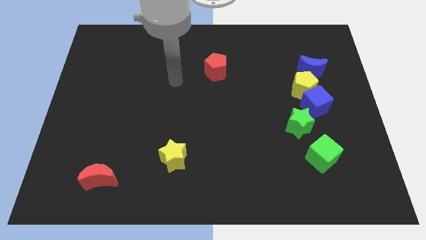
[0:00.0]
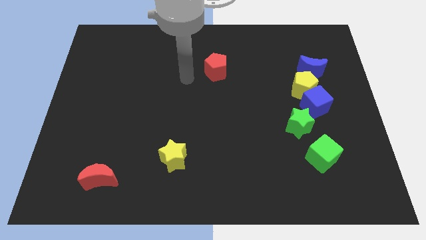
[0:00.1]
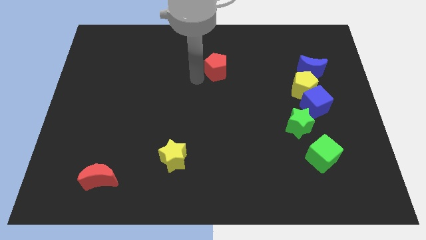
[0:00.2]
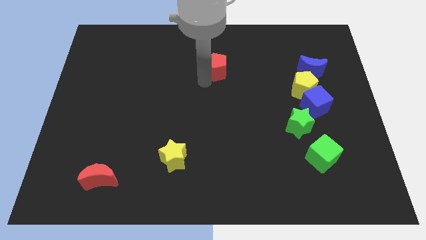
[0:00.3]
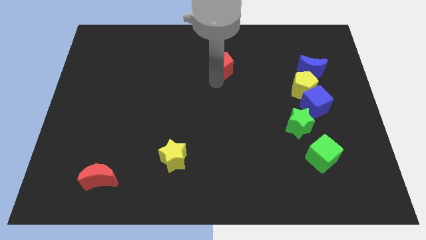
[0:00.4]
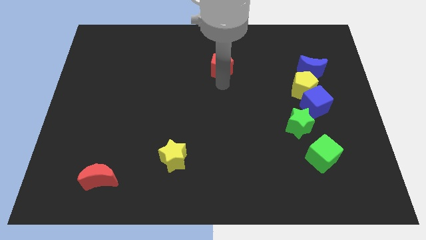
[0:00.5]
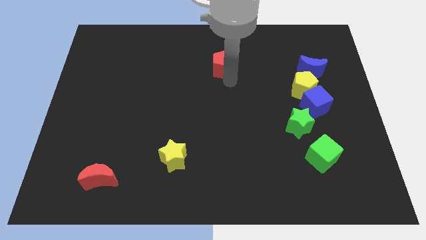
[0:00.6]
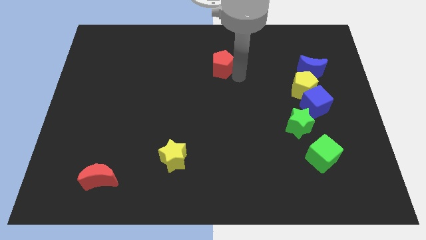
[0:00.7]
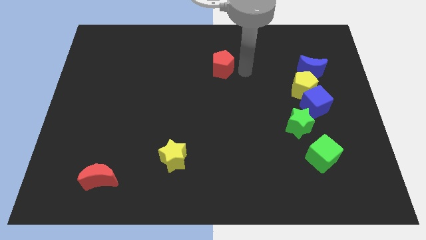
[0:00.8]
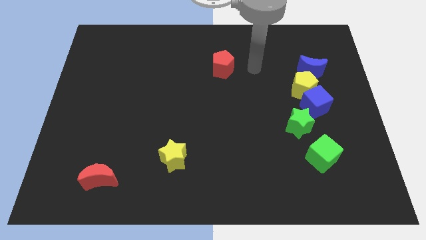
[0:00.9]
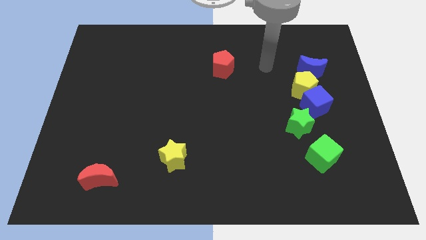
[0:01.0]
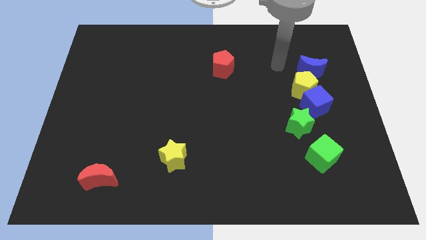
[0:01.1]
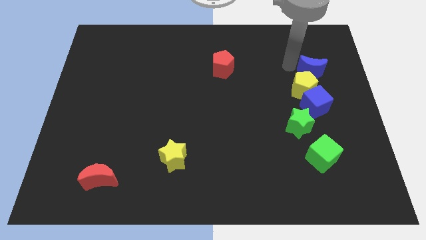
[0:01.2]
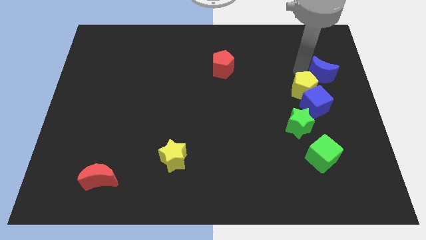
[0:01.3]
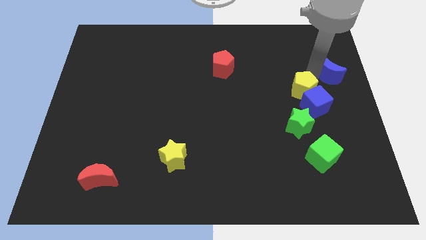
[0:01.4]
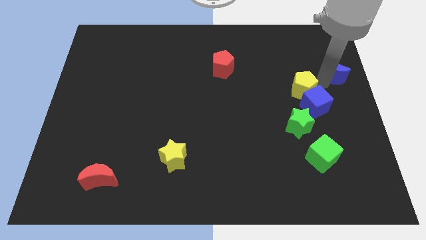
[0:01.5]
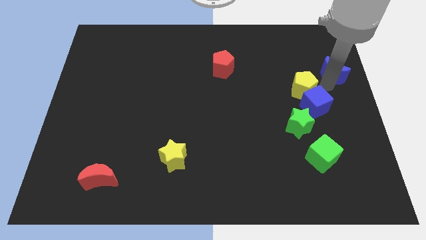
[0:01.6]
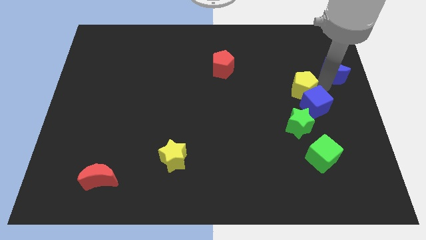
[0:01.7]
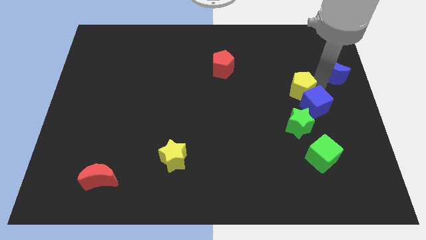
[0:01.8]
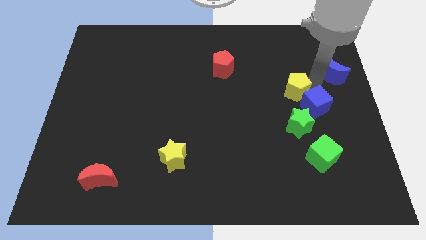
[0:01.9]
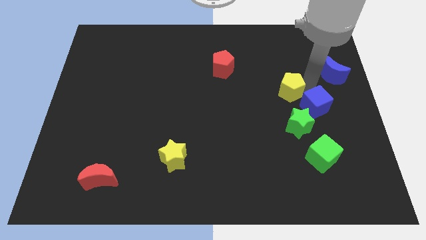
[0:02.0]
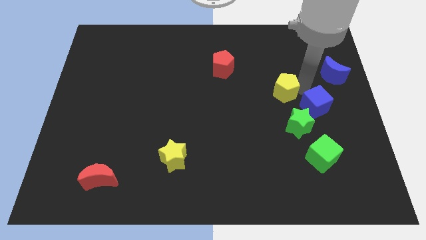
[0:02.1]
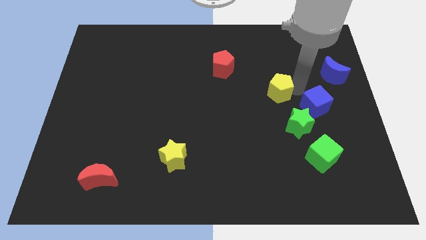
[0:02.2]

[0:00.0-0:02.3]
move the yellow pentagon away from the blue cube and blue moon

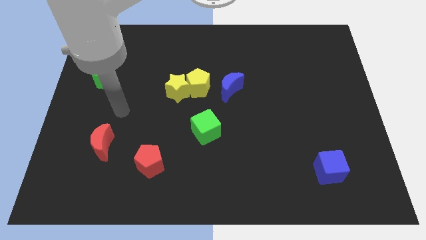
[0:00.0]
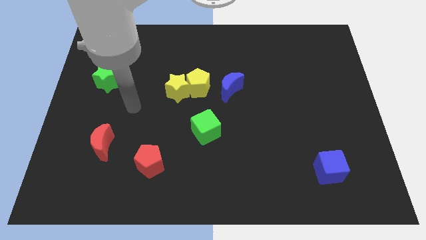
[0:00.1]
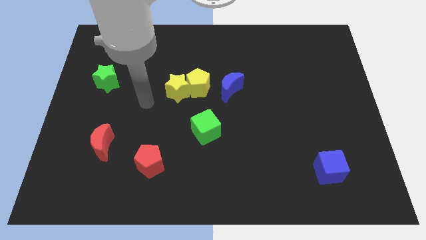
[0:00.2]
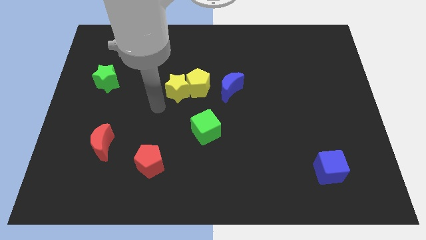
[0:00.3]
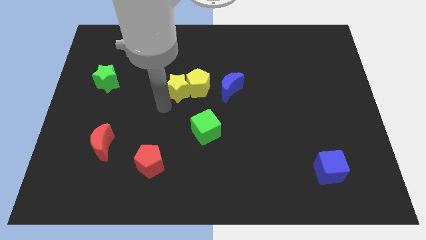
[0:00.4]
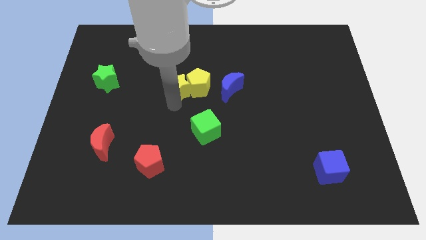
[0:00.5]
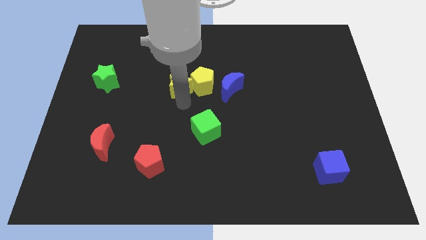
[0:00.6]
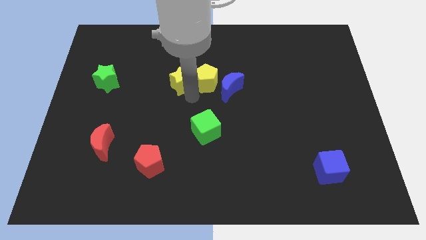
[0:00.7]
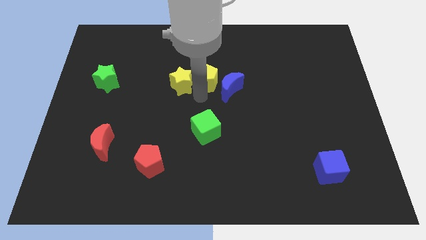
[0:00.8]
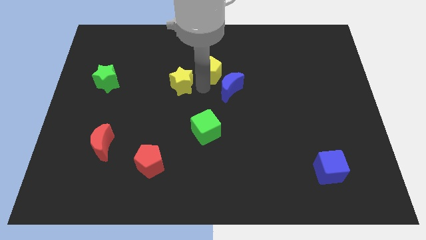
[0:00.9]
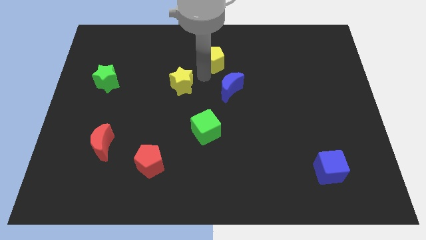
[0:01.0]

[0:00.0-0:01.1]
pull the yellow star apart from the yellow pentagon

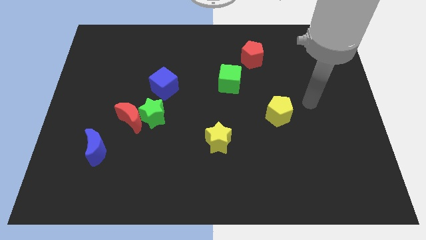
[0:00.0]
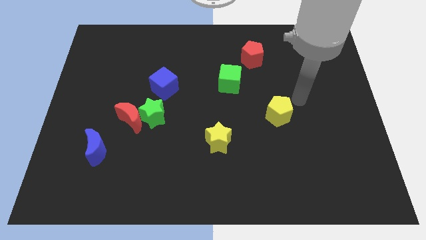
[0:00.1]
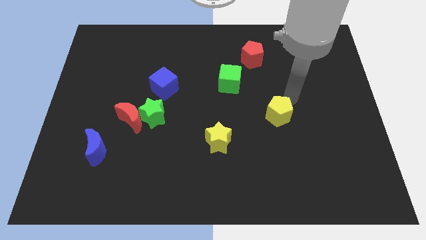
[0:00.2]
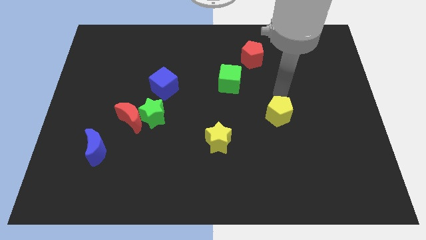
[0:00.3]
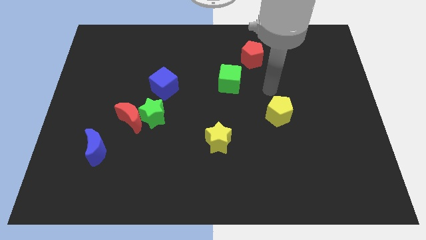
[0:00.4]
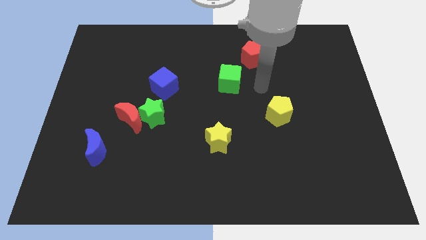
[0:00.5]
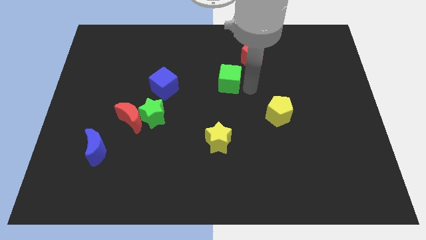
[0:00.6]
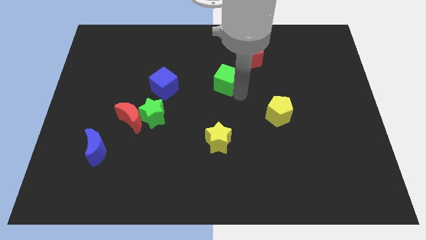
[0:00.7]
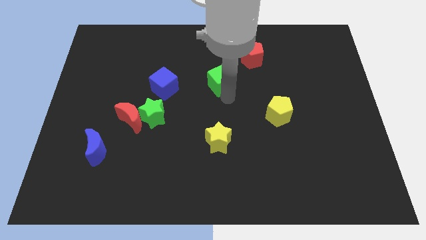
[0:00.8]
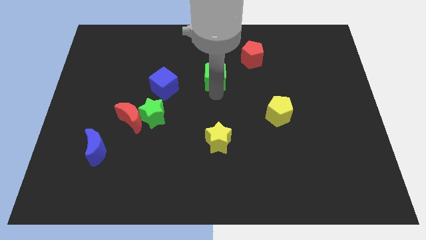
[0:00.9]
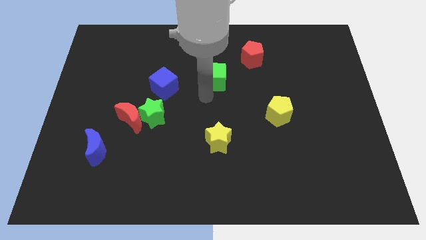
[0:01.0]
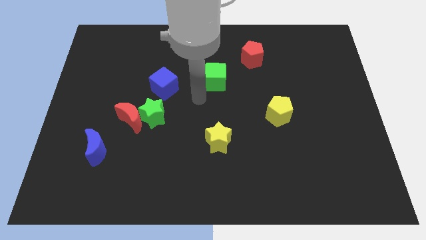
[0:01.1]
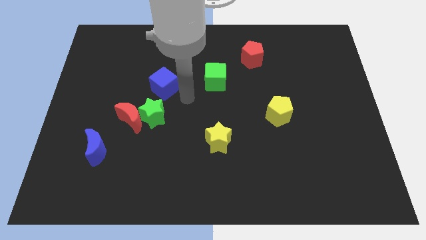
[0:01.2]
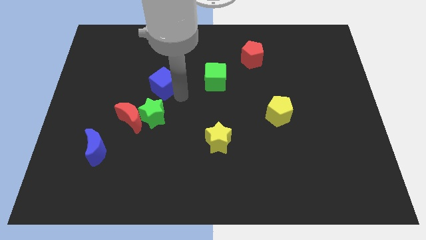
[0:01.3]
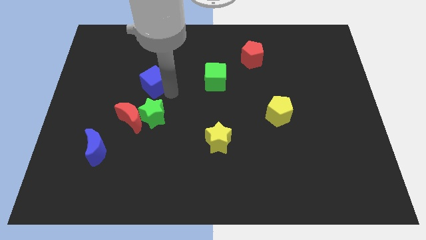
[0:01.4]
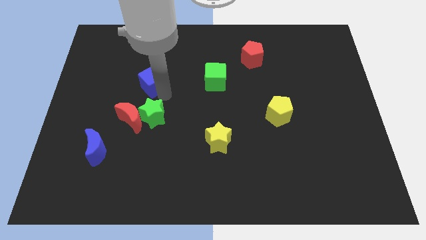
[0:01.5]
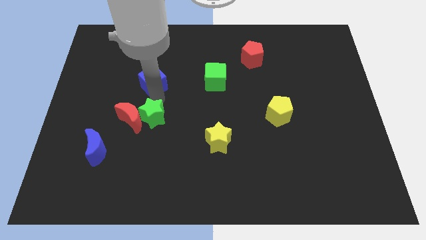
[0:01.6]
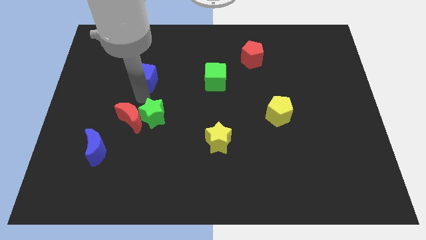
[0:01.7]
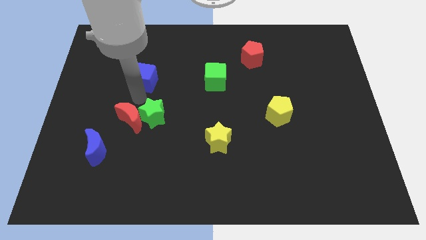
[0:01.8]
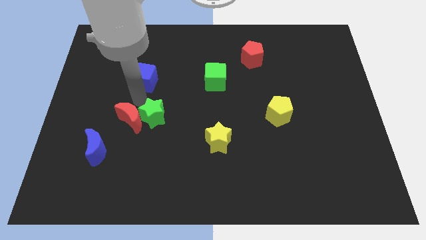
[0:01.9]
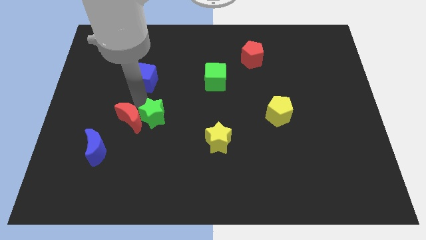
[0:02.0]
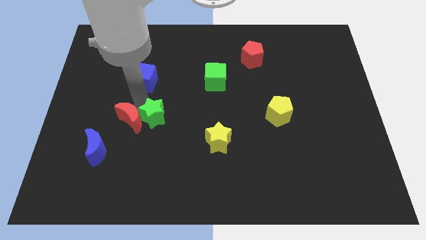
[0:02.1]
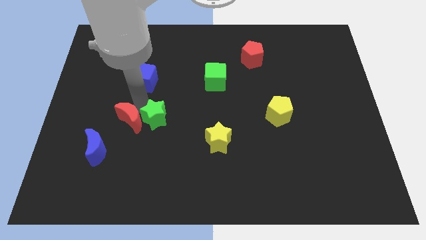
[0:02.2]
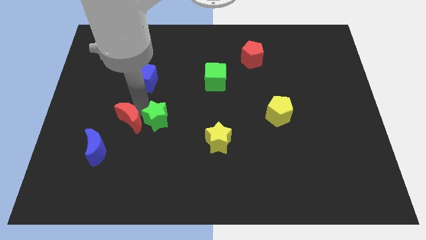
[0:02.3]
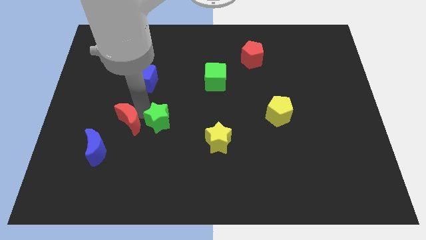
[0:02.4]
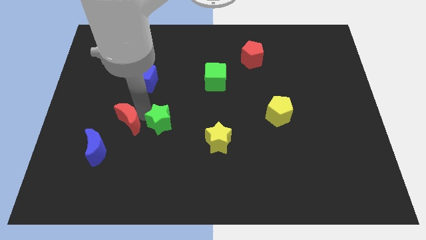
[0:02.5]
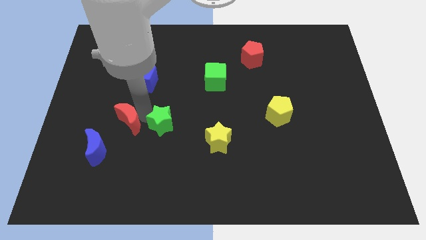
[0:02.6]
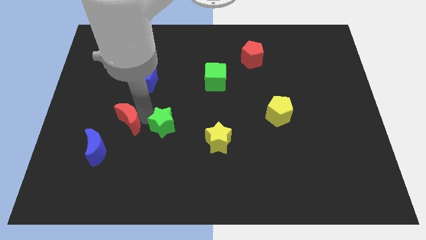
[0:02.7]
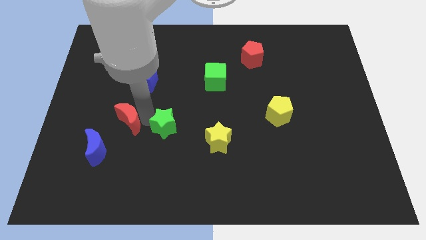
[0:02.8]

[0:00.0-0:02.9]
move the green star away from the red moon and blue cube

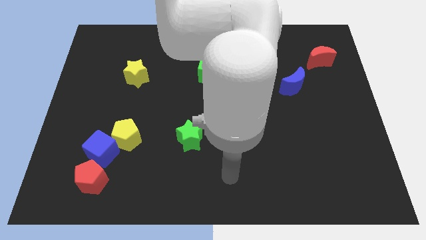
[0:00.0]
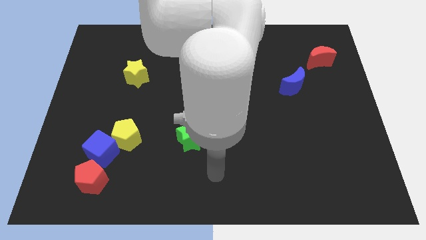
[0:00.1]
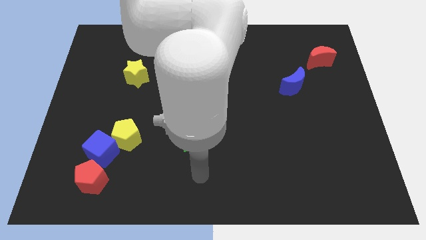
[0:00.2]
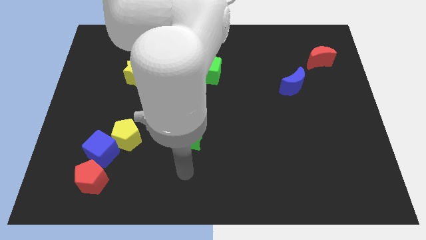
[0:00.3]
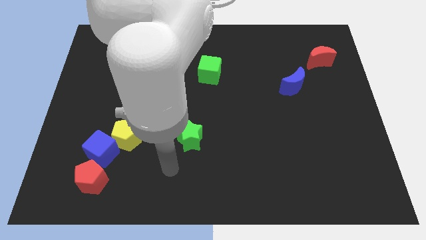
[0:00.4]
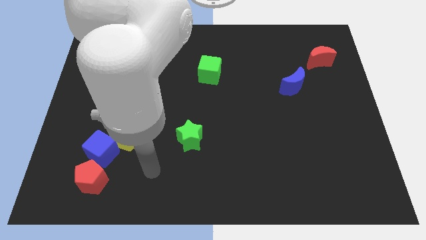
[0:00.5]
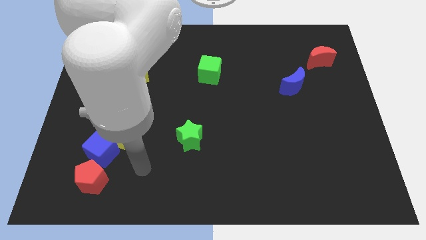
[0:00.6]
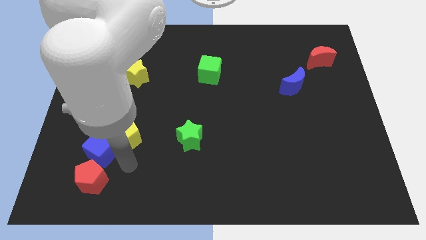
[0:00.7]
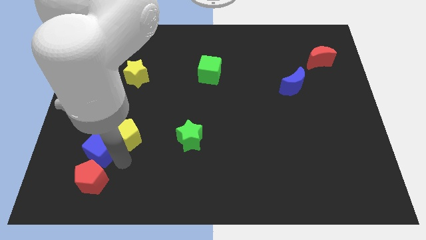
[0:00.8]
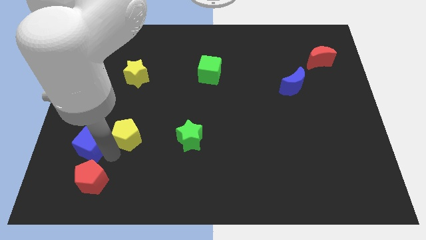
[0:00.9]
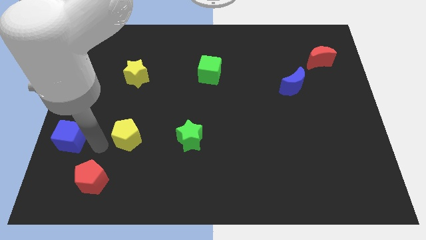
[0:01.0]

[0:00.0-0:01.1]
pull the yellow pentagon apart from the blue cube

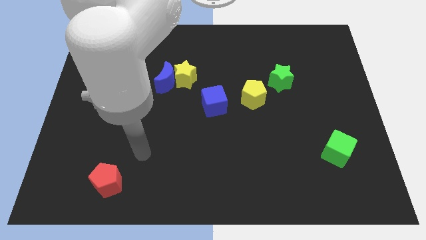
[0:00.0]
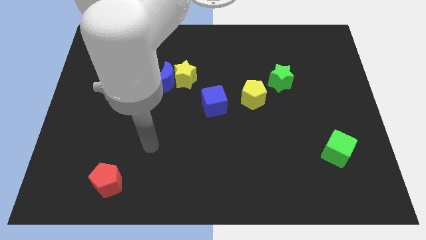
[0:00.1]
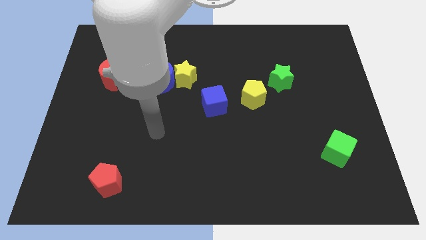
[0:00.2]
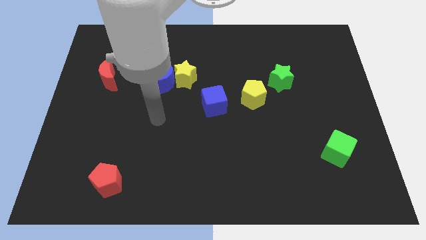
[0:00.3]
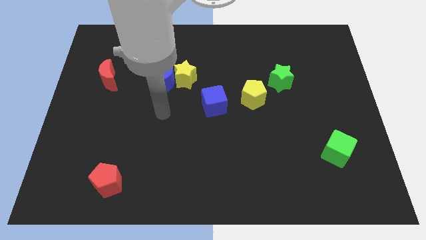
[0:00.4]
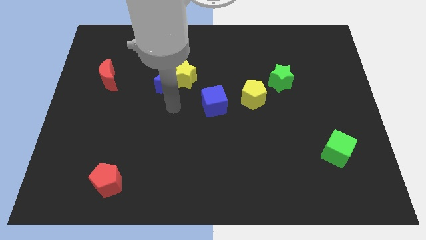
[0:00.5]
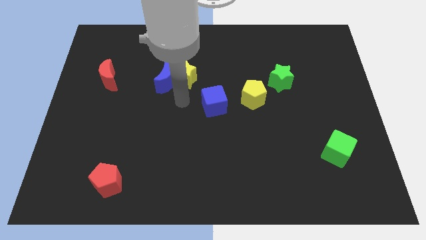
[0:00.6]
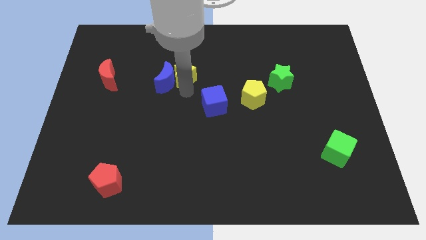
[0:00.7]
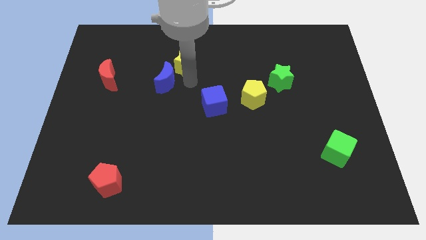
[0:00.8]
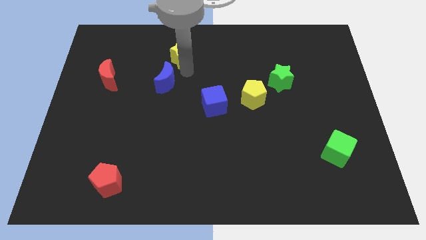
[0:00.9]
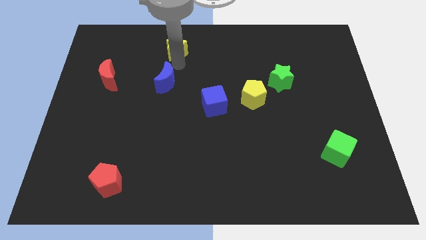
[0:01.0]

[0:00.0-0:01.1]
separate the blue moon from the yellow star

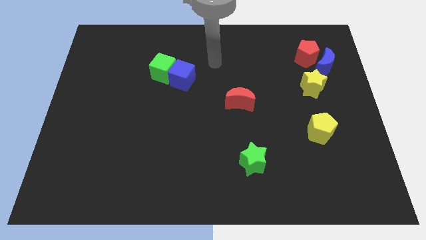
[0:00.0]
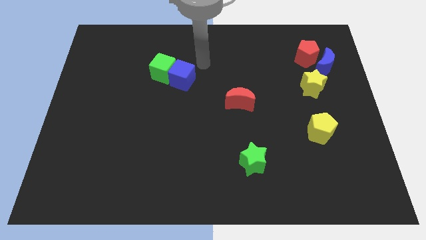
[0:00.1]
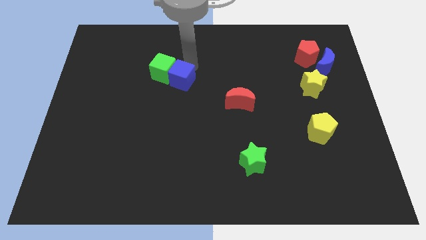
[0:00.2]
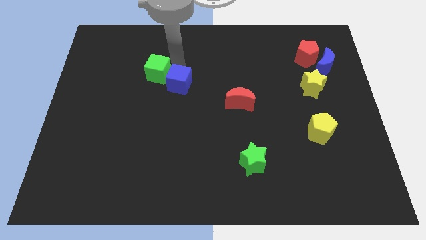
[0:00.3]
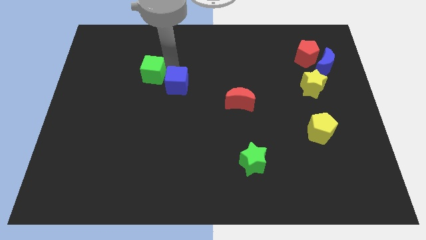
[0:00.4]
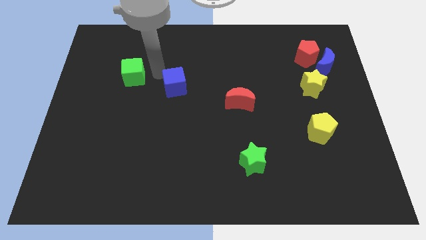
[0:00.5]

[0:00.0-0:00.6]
move the blue cube away from the green cube

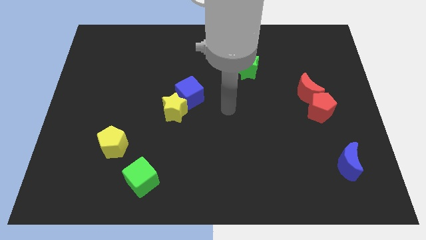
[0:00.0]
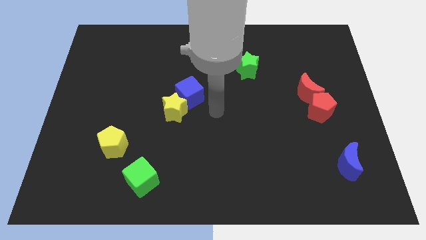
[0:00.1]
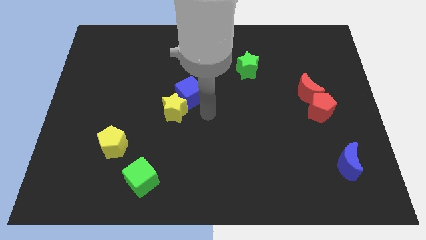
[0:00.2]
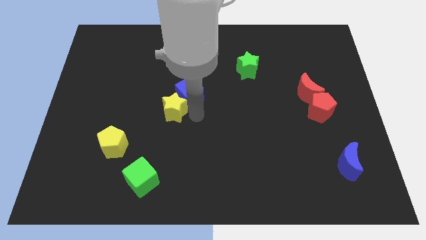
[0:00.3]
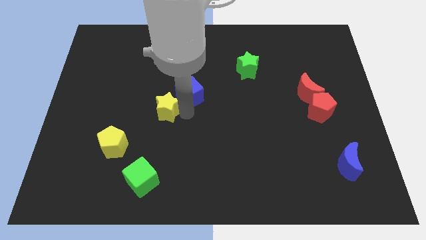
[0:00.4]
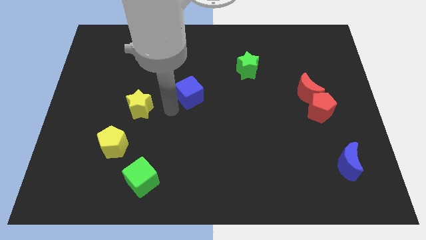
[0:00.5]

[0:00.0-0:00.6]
separate the blue cube from the yellow star
